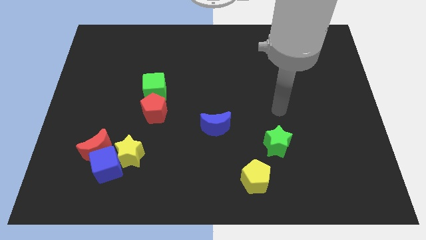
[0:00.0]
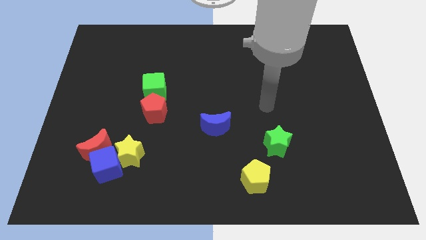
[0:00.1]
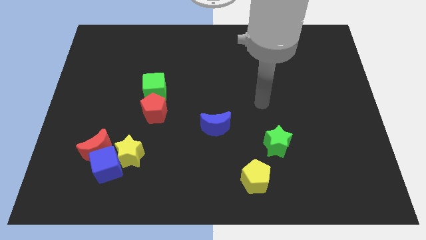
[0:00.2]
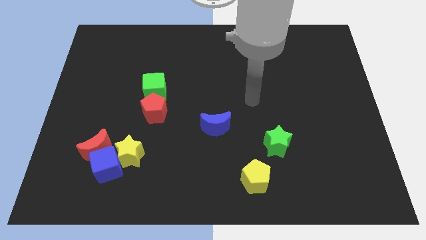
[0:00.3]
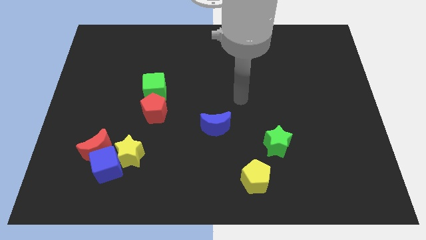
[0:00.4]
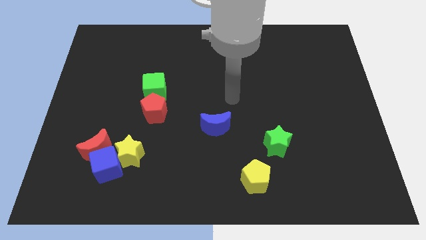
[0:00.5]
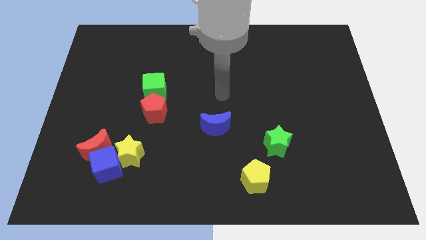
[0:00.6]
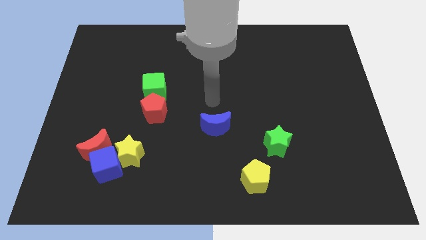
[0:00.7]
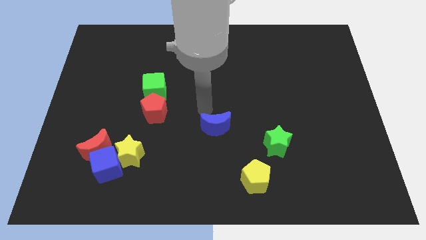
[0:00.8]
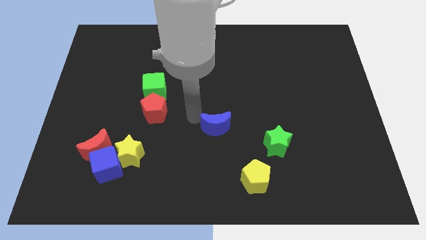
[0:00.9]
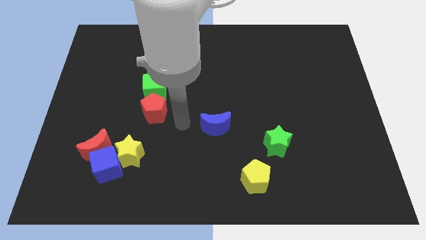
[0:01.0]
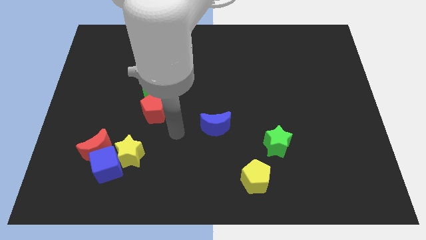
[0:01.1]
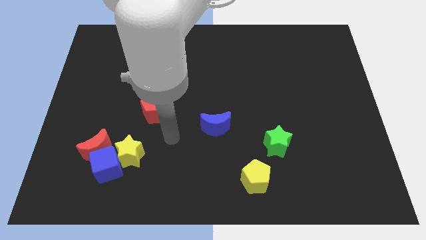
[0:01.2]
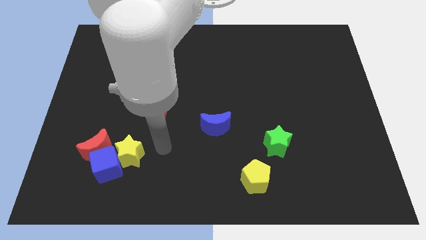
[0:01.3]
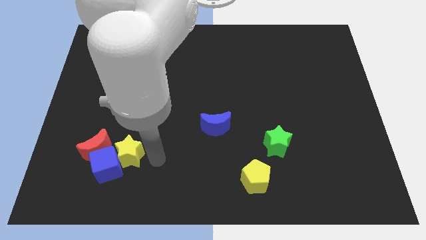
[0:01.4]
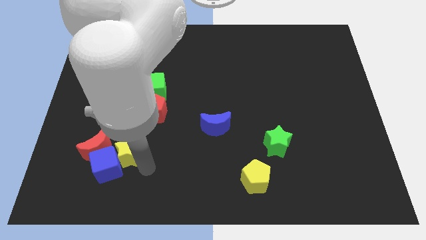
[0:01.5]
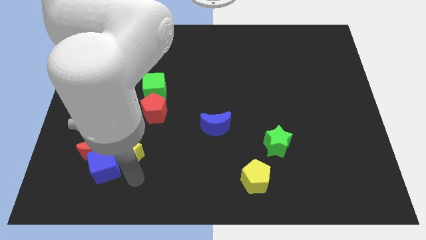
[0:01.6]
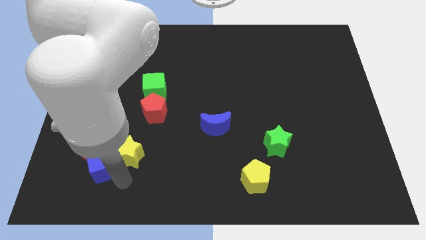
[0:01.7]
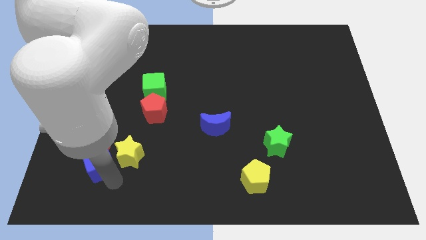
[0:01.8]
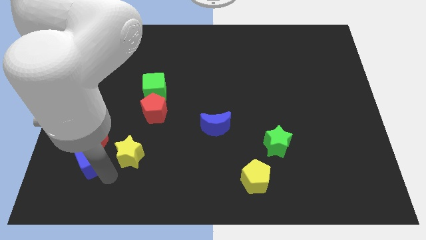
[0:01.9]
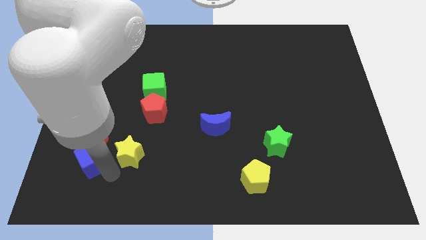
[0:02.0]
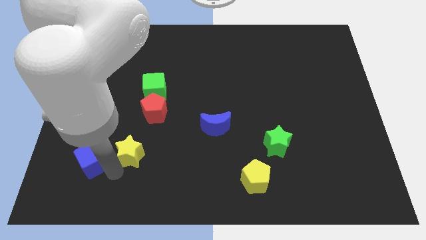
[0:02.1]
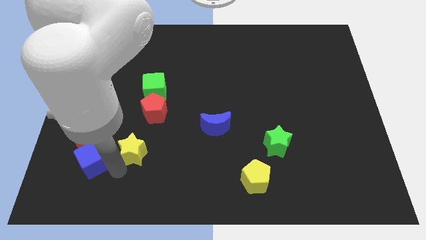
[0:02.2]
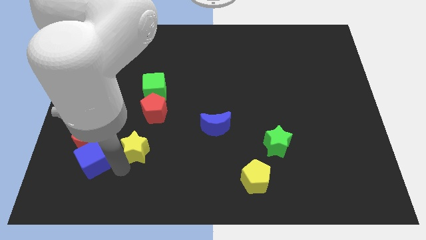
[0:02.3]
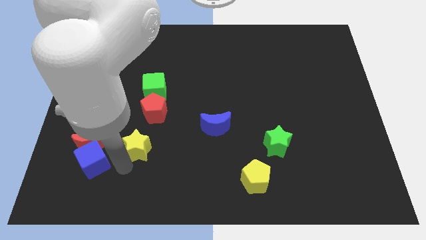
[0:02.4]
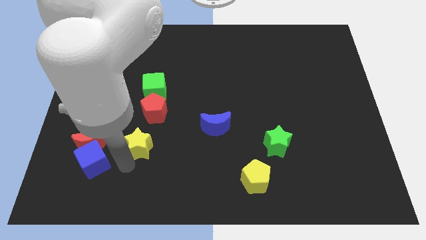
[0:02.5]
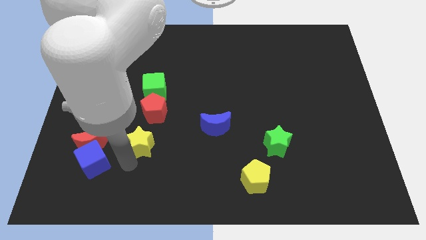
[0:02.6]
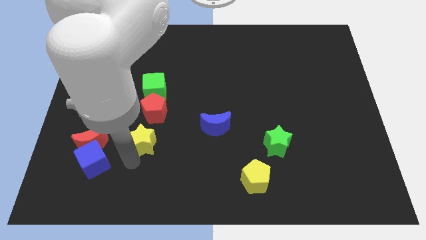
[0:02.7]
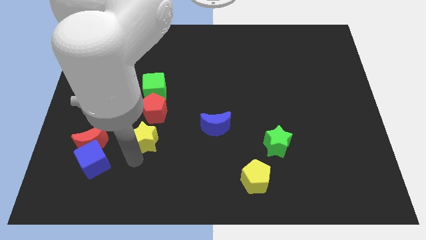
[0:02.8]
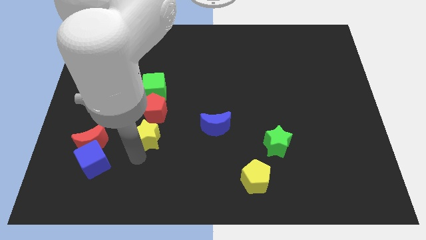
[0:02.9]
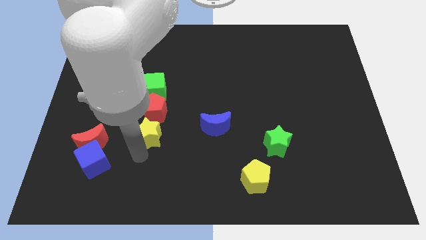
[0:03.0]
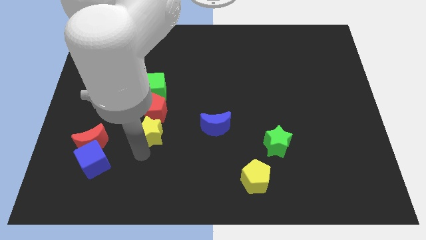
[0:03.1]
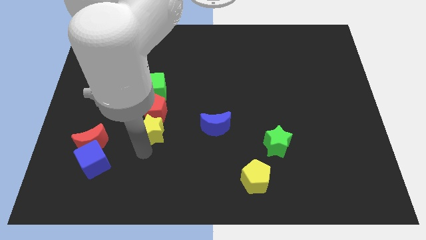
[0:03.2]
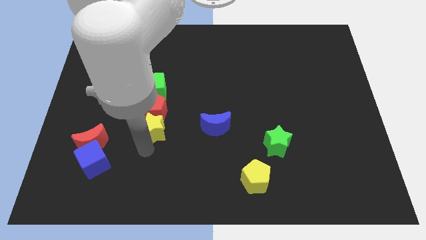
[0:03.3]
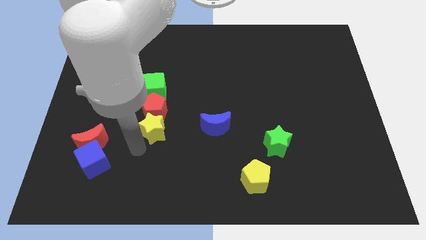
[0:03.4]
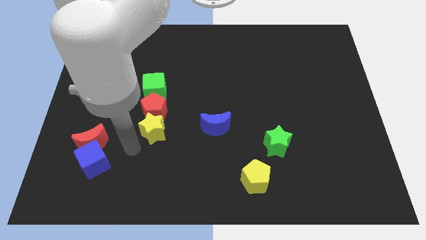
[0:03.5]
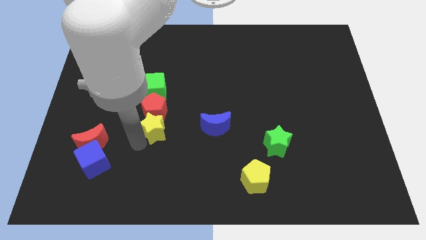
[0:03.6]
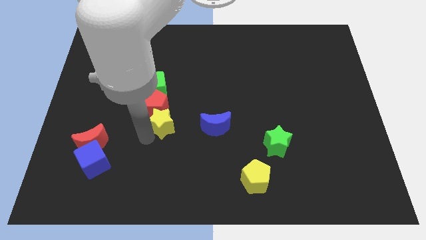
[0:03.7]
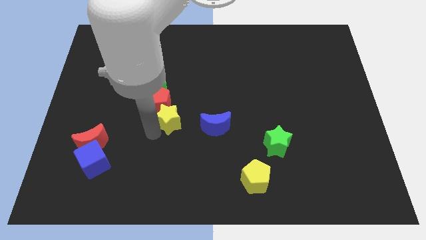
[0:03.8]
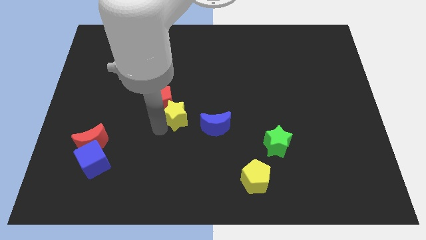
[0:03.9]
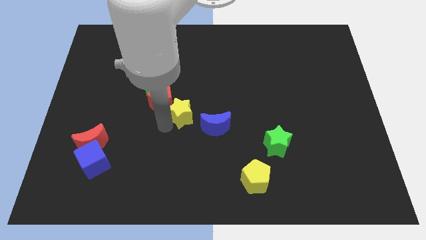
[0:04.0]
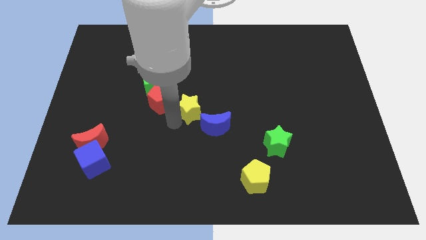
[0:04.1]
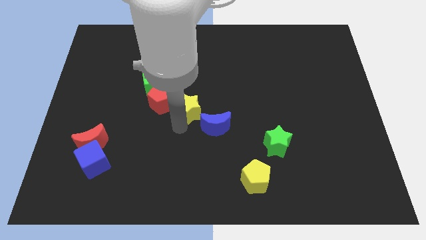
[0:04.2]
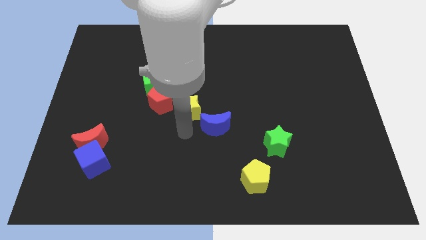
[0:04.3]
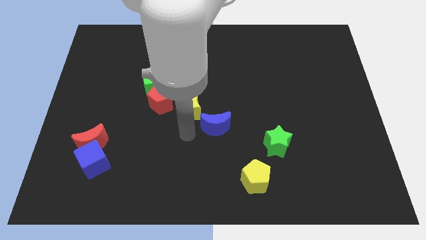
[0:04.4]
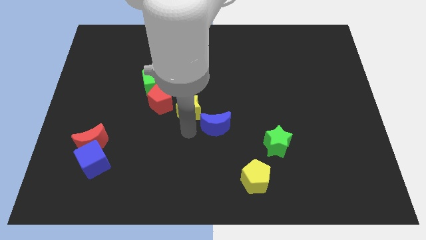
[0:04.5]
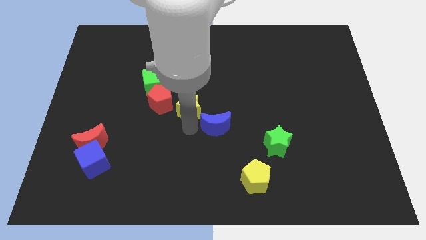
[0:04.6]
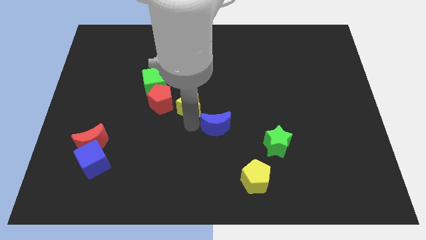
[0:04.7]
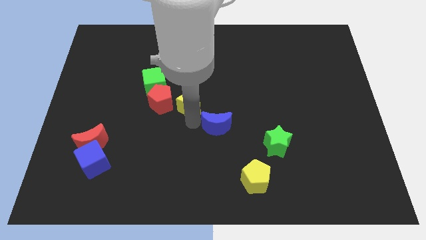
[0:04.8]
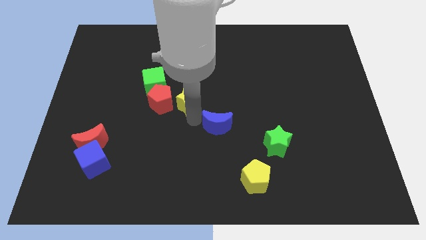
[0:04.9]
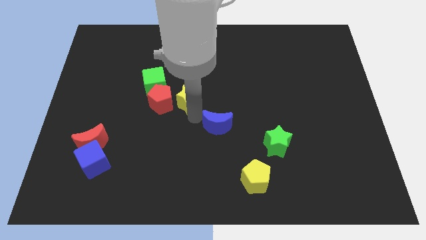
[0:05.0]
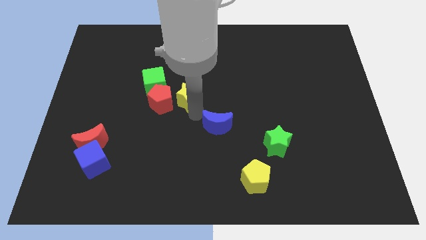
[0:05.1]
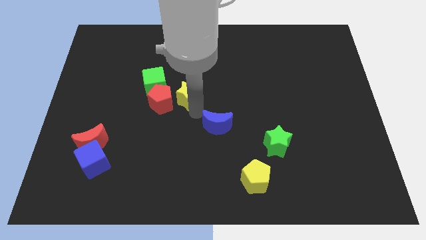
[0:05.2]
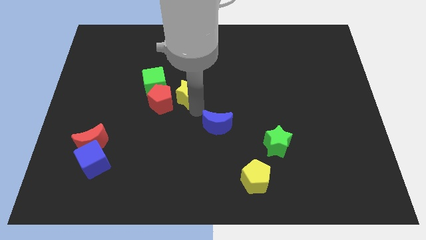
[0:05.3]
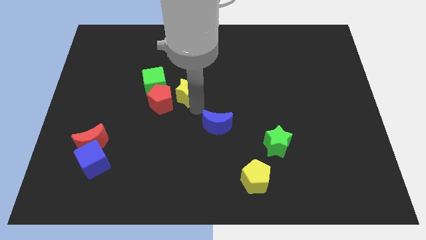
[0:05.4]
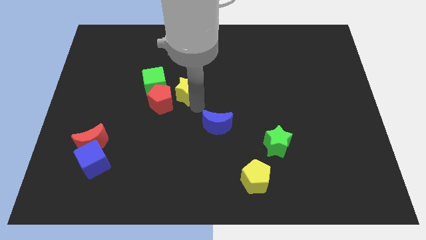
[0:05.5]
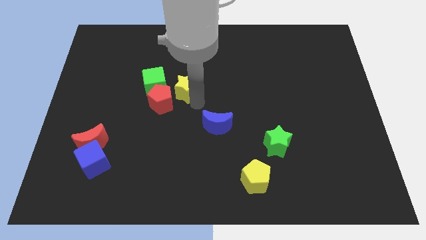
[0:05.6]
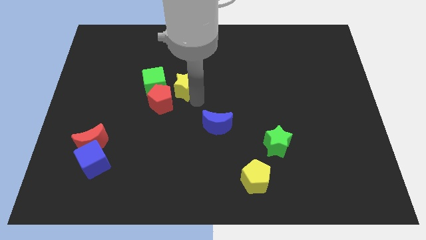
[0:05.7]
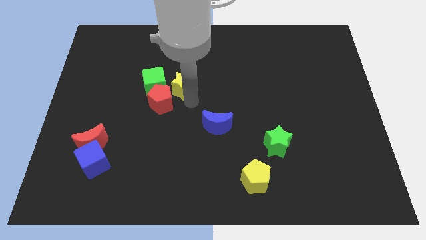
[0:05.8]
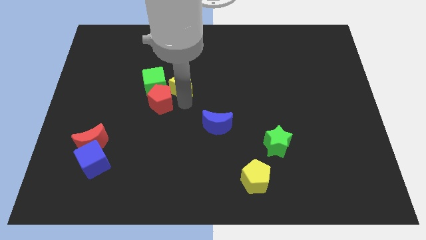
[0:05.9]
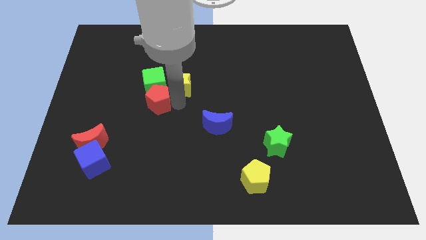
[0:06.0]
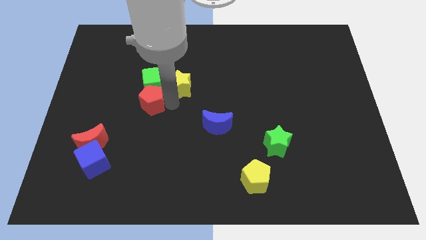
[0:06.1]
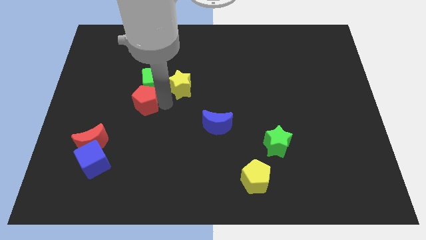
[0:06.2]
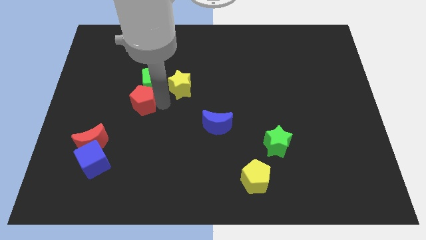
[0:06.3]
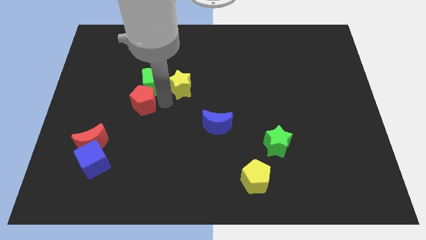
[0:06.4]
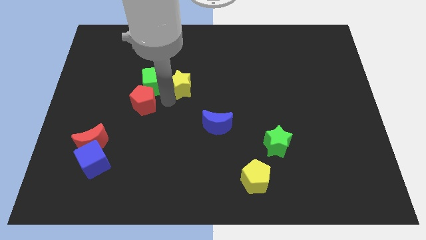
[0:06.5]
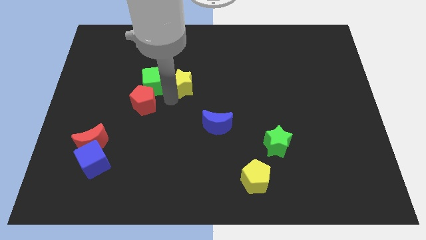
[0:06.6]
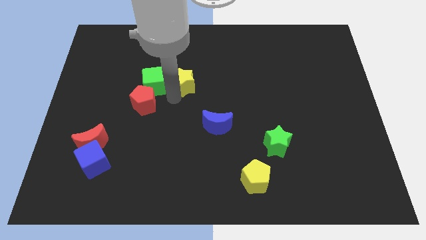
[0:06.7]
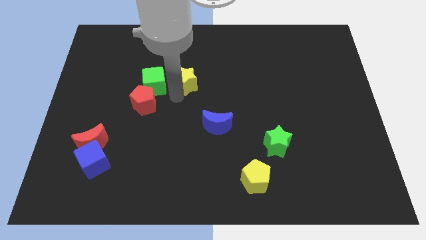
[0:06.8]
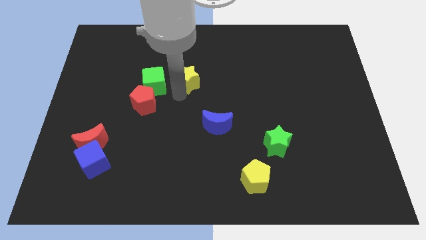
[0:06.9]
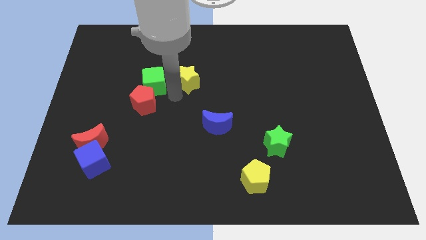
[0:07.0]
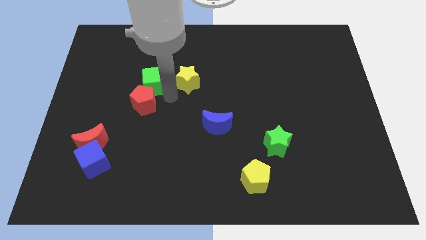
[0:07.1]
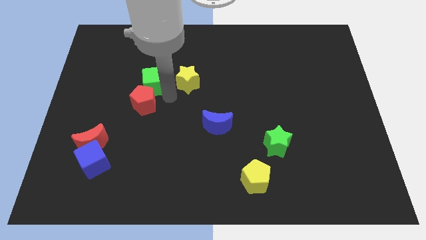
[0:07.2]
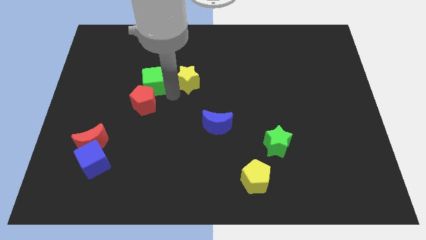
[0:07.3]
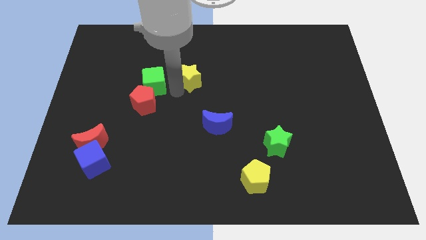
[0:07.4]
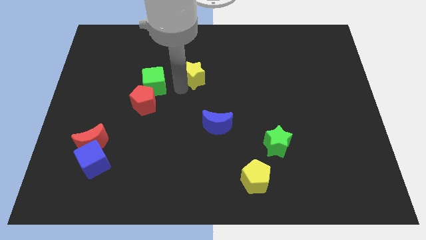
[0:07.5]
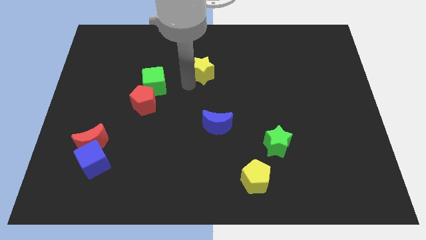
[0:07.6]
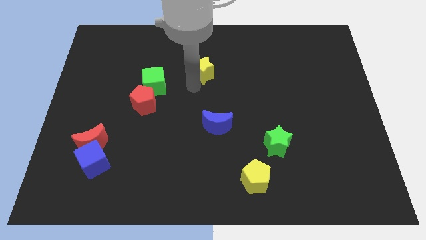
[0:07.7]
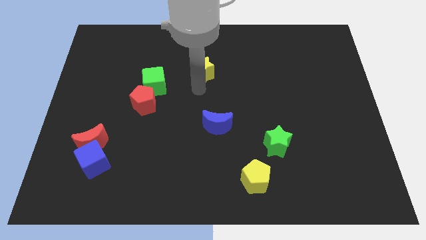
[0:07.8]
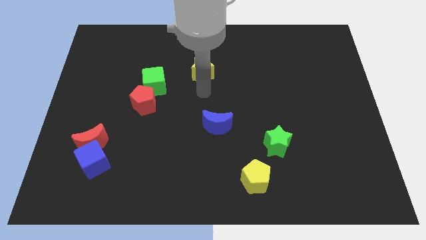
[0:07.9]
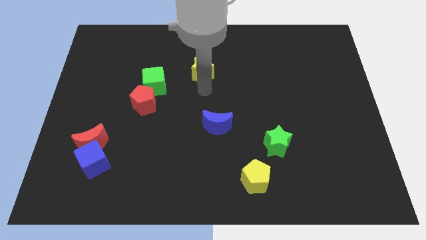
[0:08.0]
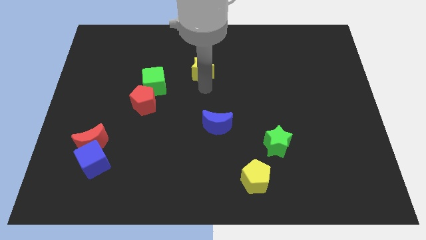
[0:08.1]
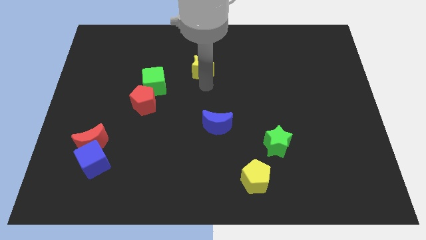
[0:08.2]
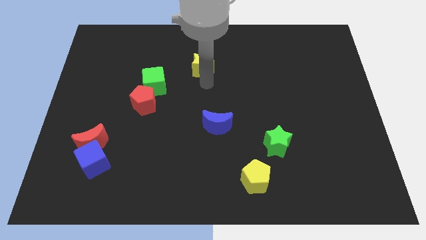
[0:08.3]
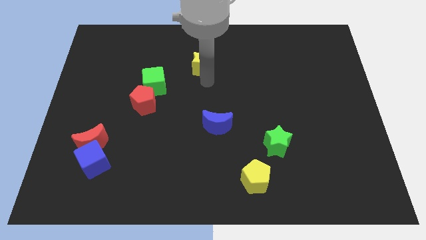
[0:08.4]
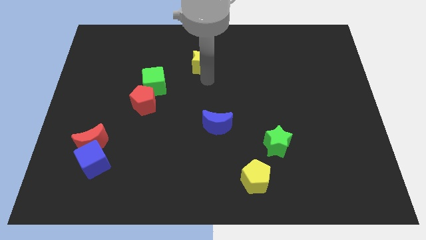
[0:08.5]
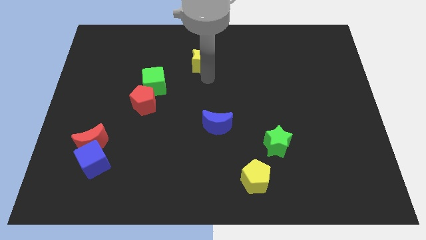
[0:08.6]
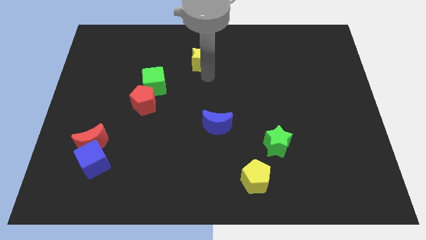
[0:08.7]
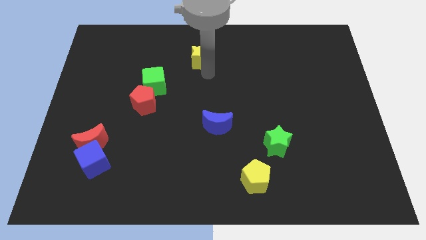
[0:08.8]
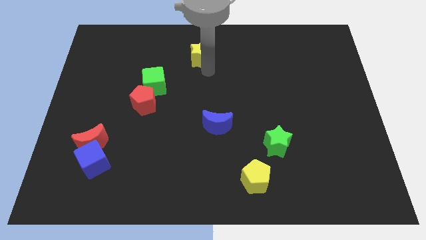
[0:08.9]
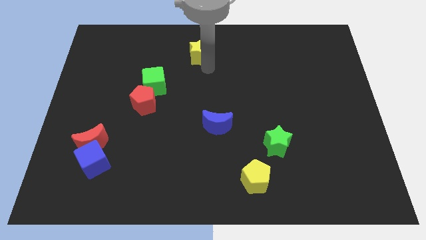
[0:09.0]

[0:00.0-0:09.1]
put the yellow star to the top
